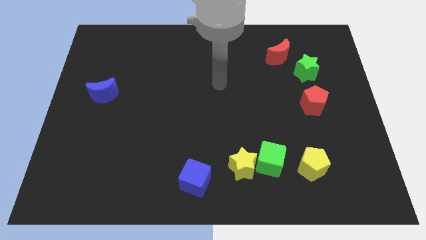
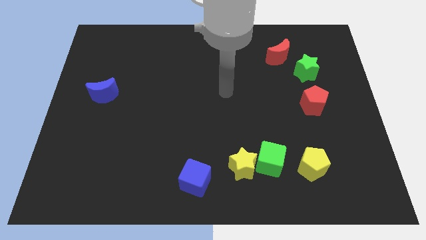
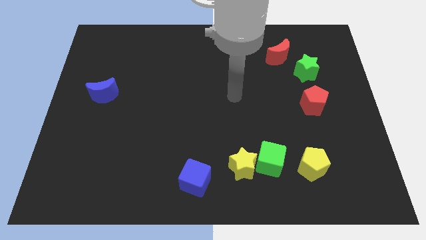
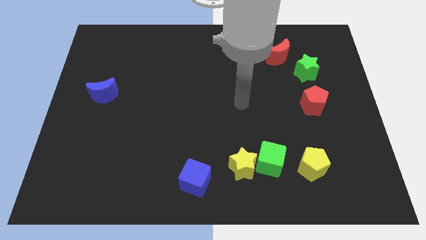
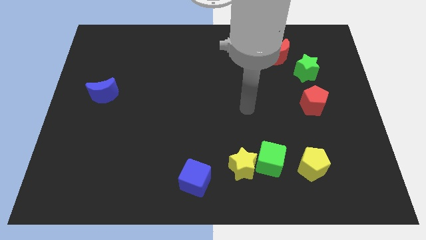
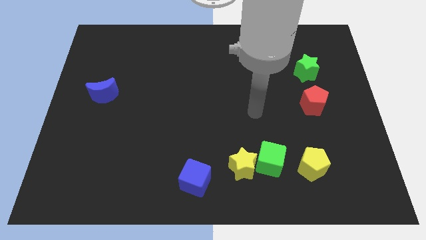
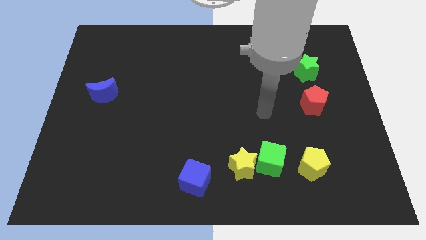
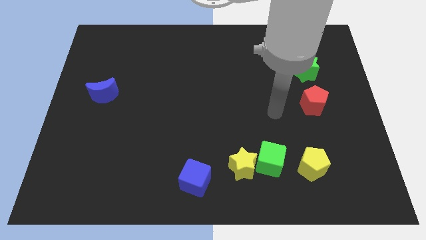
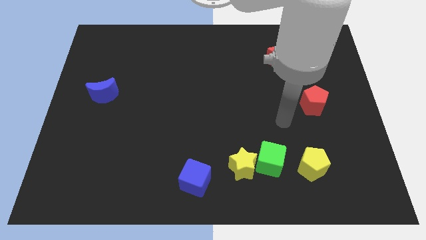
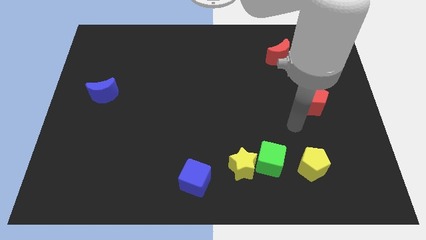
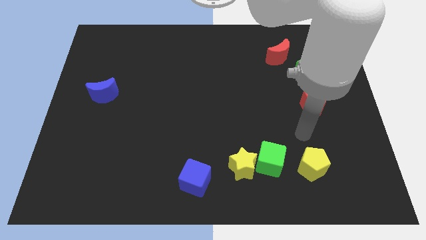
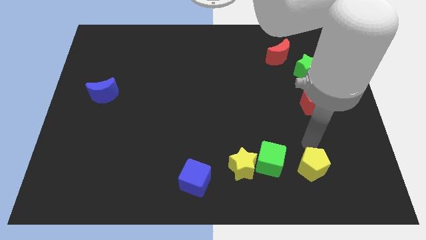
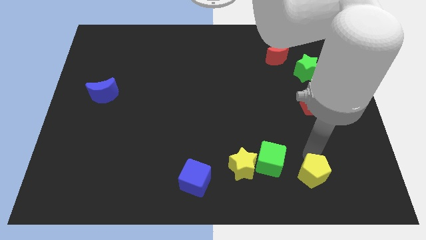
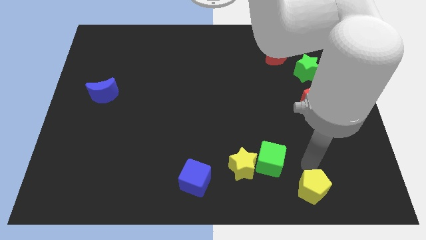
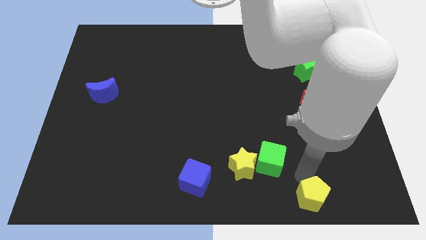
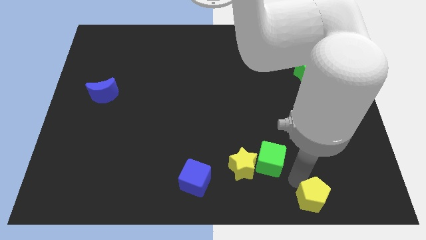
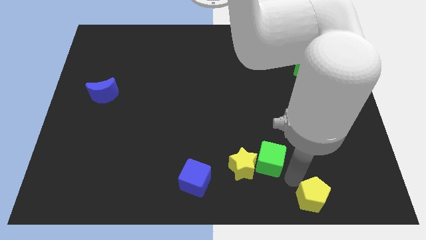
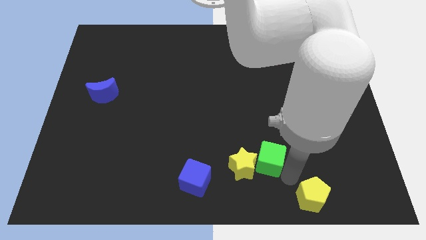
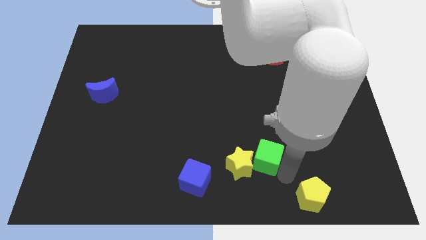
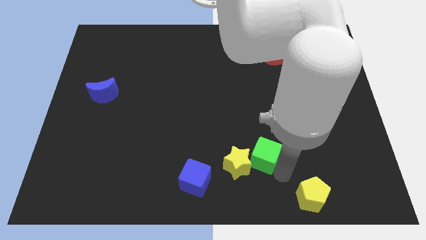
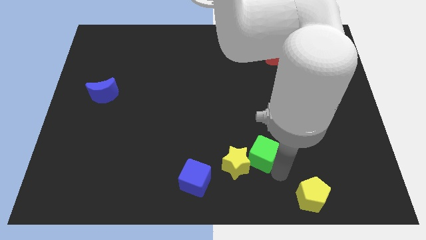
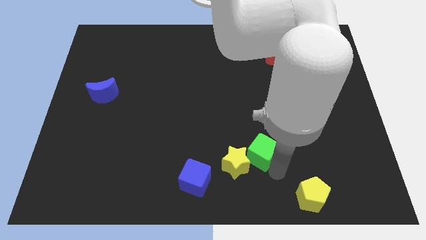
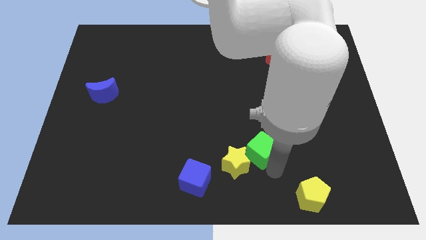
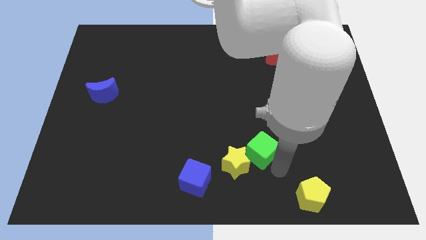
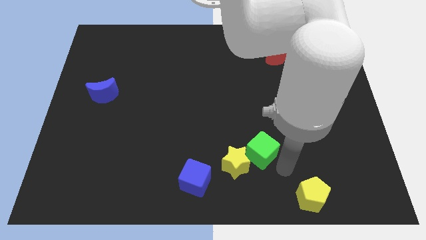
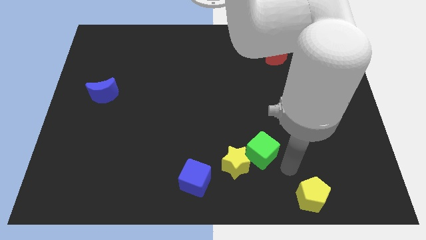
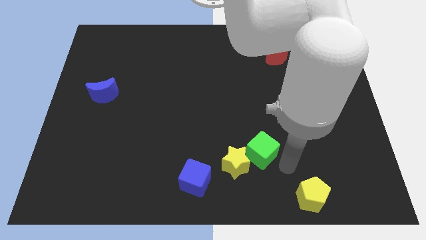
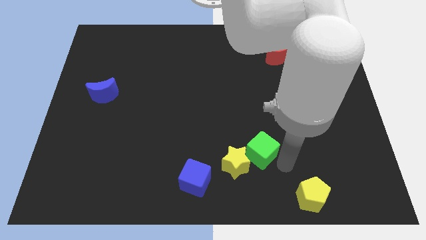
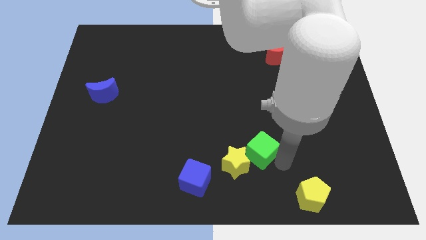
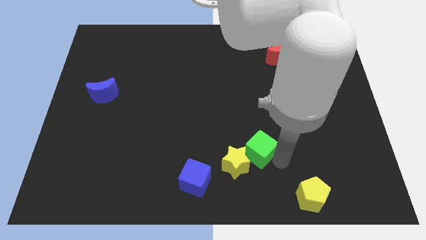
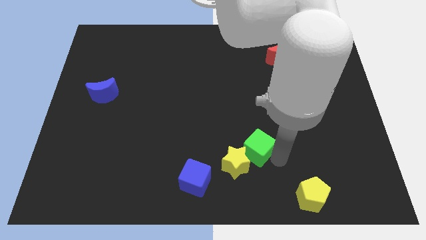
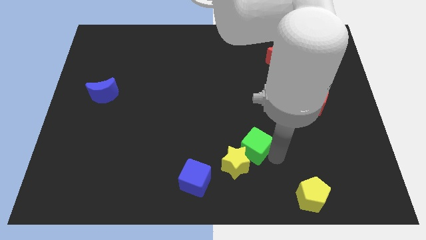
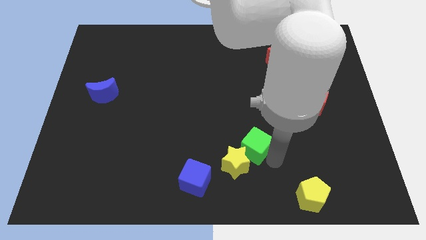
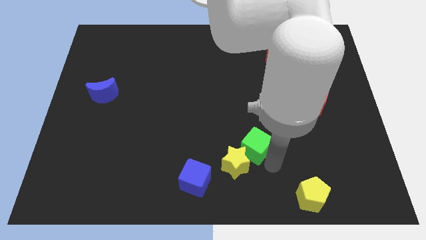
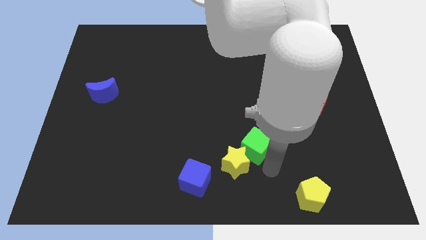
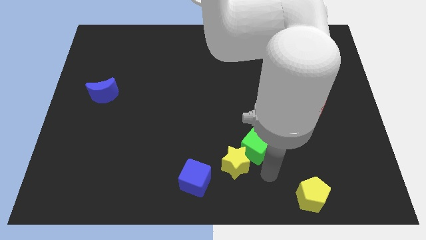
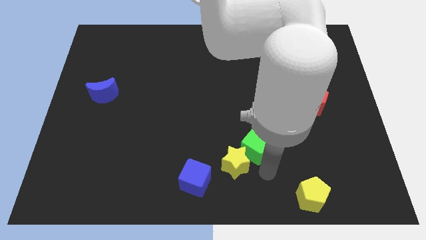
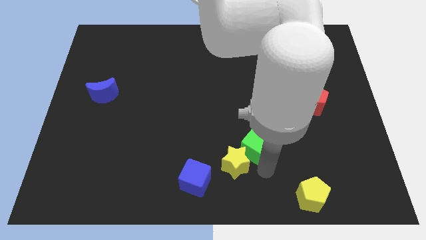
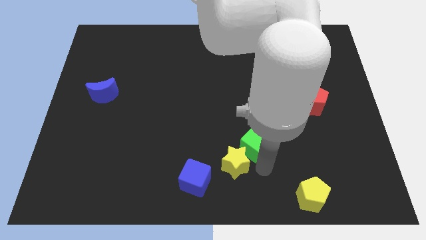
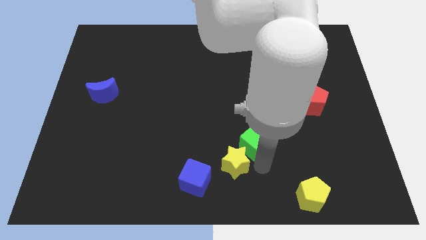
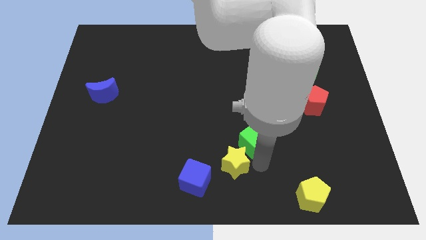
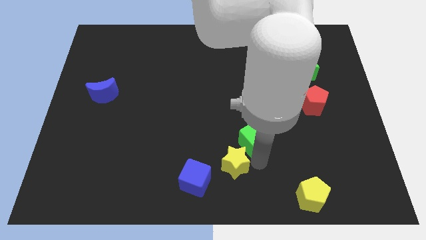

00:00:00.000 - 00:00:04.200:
pull the green cube apart from the yellow star and yellow pentagon

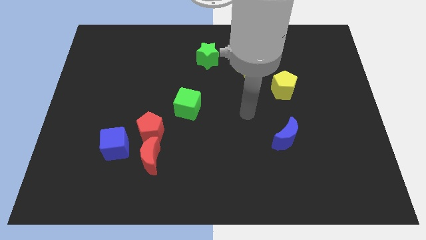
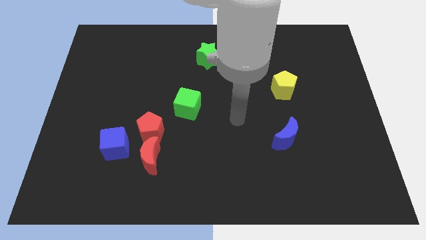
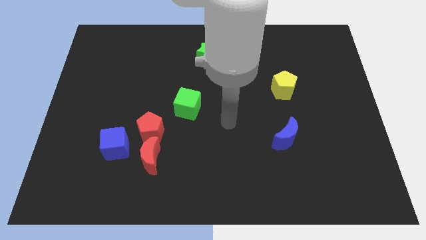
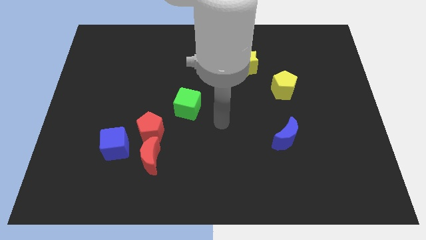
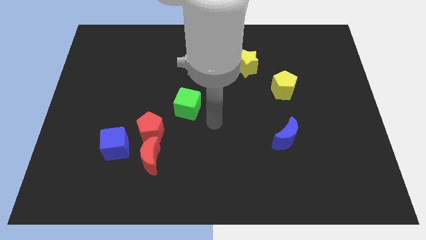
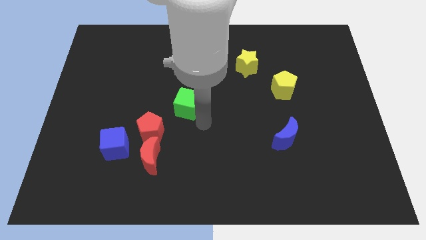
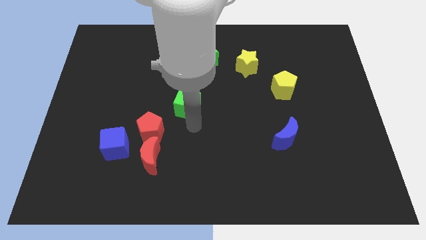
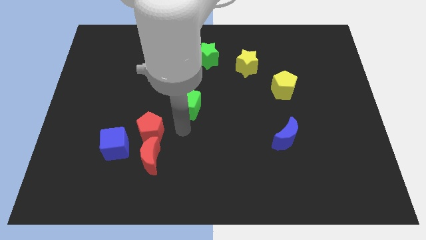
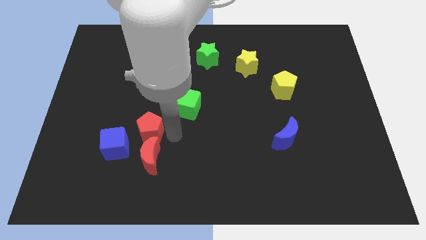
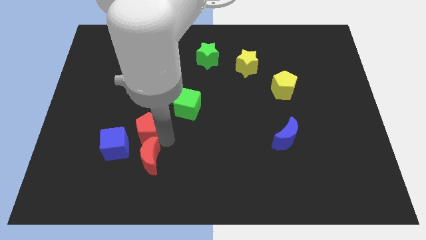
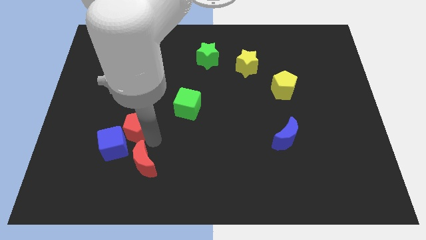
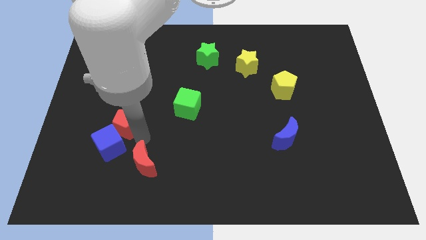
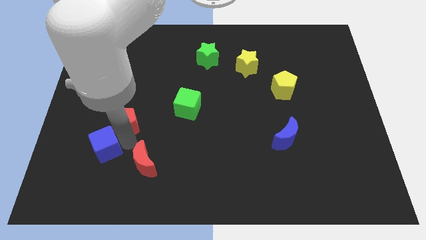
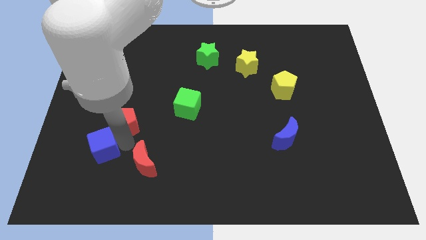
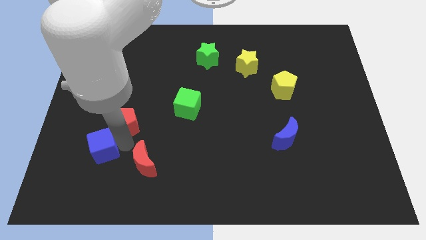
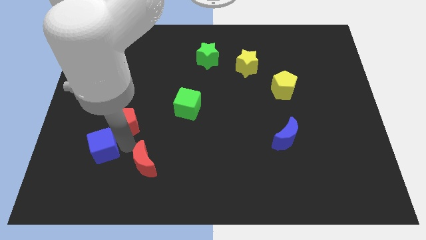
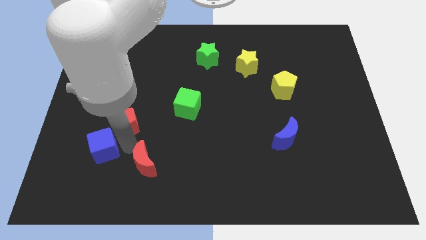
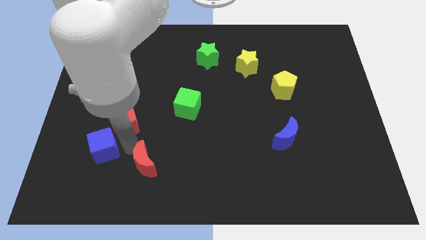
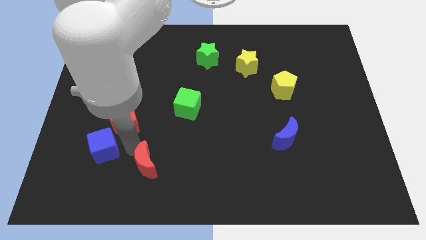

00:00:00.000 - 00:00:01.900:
separate the red moon from the red pentagon and blue cube

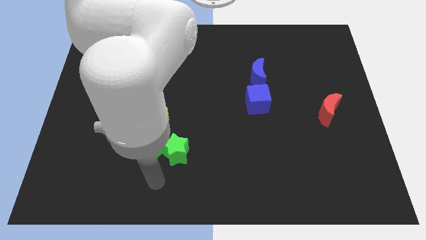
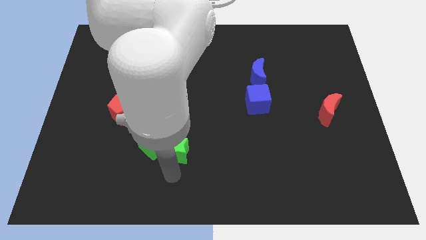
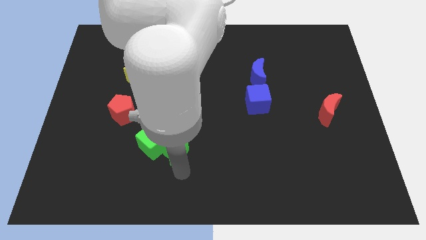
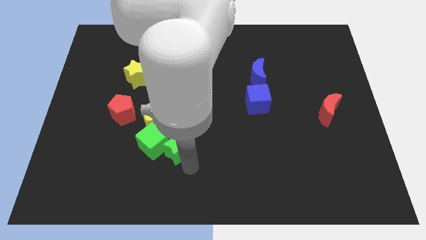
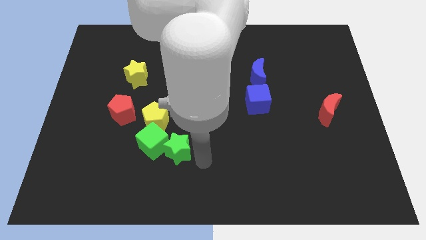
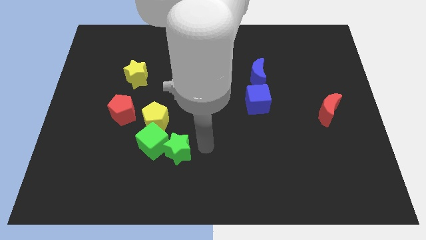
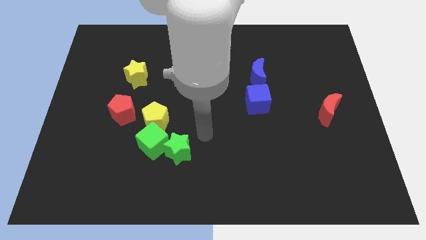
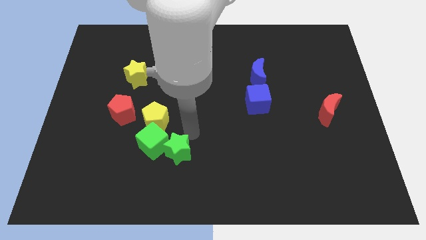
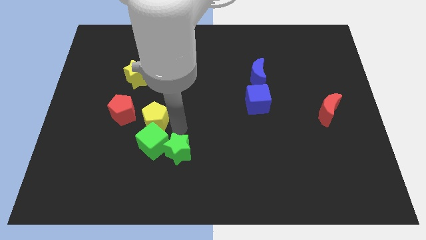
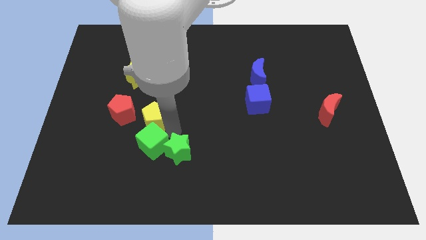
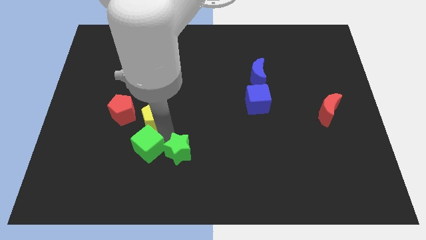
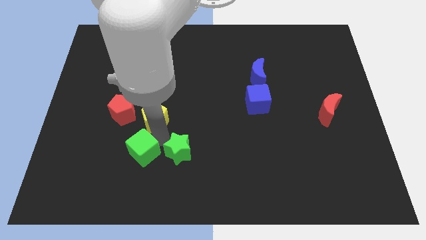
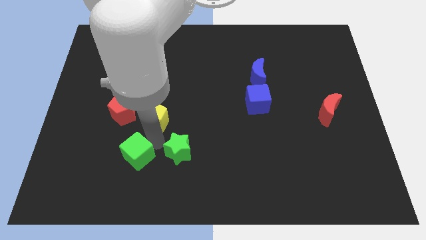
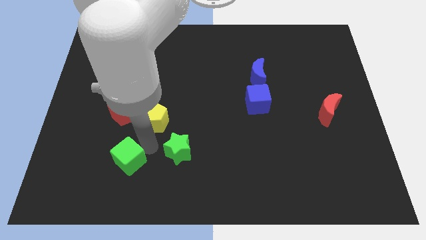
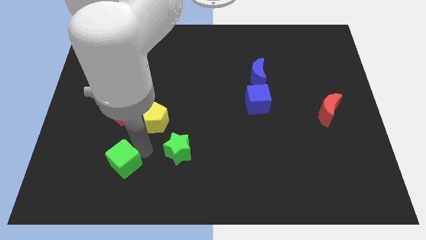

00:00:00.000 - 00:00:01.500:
pull the green cube apart from the green star and yellow pentagon

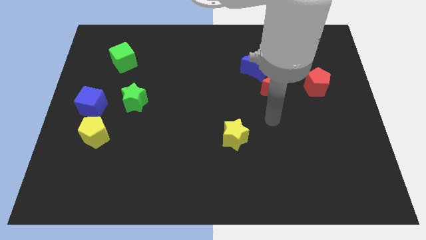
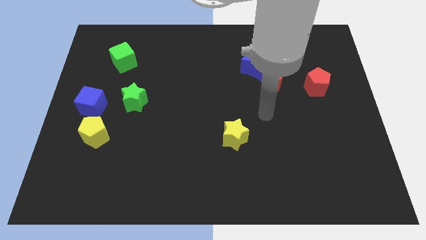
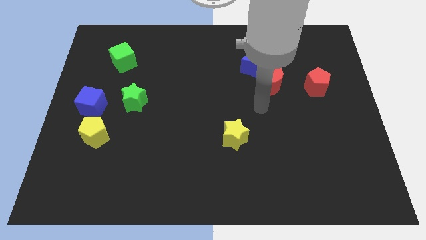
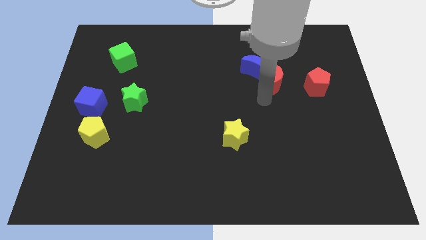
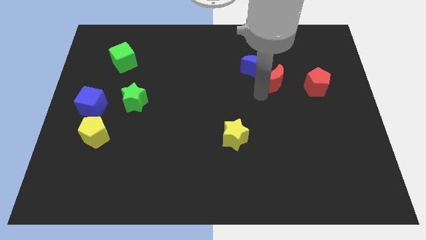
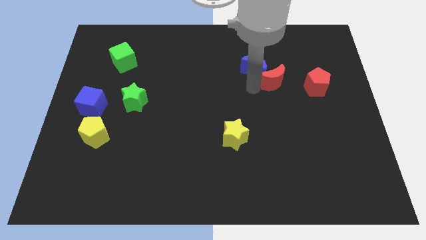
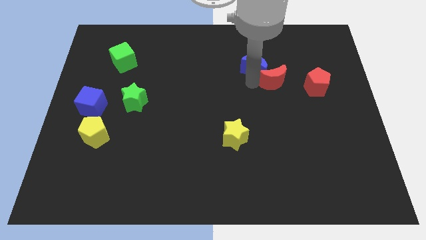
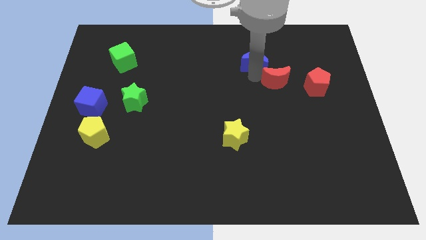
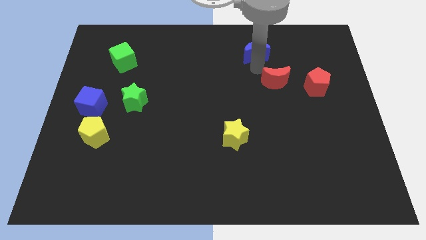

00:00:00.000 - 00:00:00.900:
move the red moon away from the blue moon

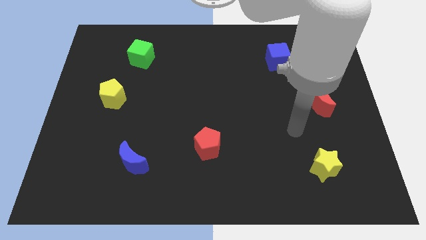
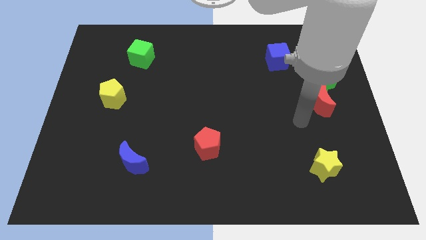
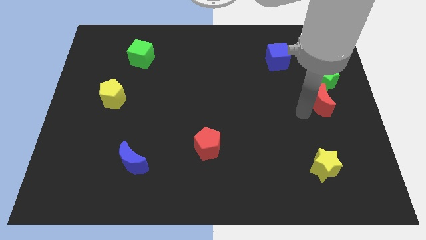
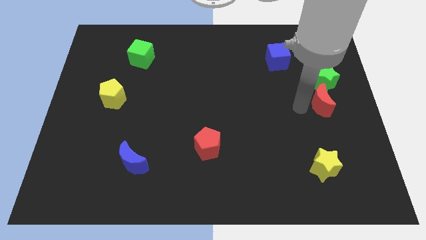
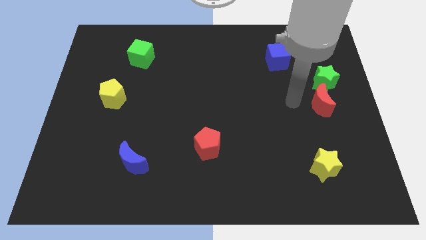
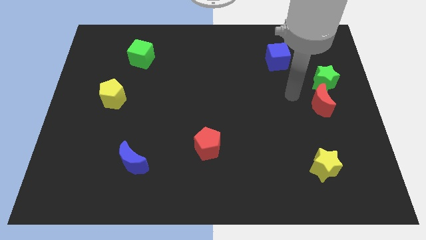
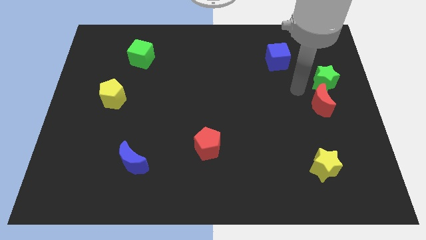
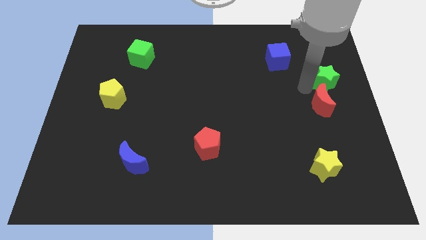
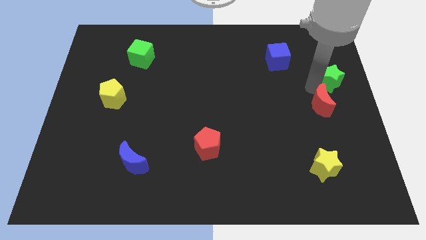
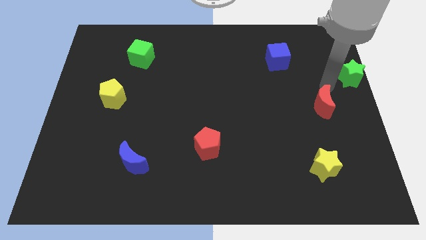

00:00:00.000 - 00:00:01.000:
pull the red moon apart from the green star

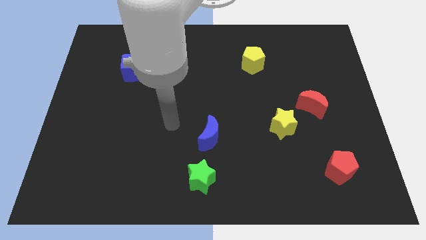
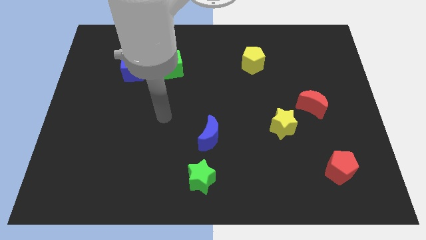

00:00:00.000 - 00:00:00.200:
move the blue cube away from the green cube
